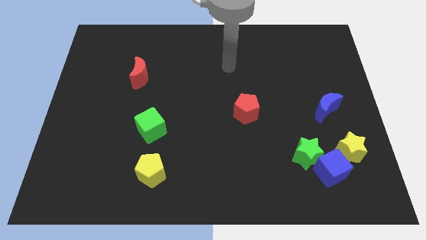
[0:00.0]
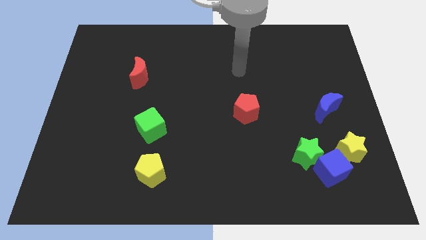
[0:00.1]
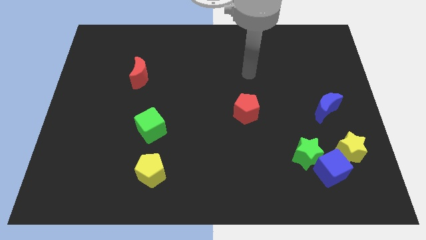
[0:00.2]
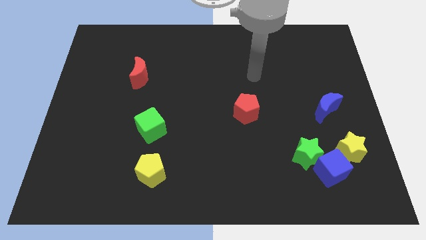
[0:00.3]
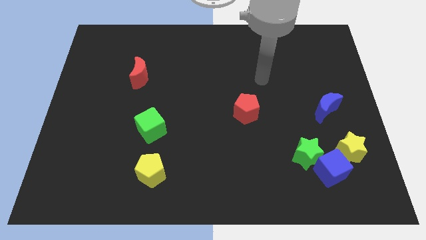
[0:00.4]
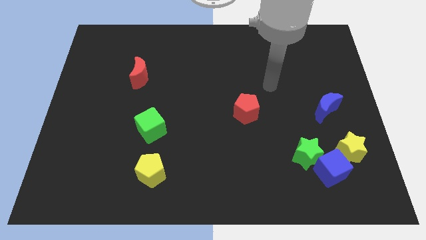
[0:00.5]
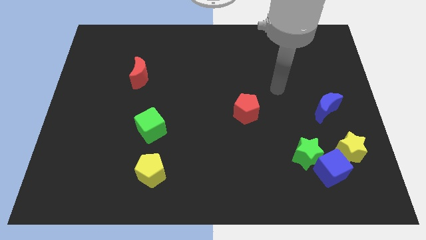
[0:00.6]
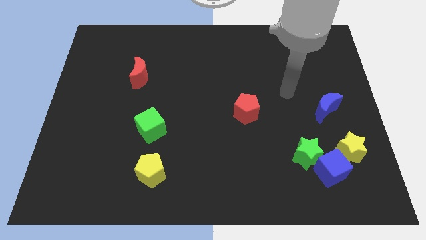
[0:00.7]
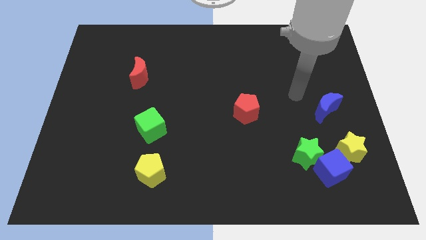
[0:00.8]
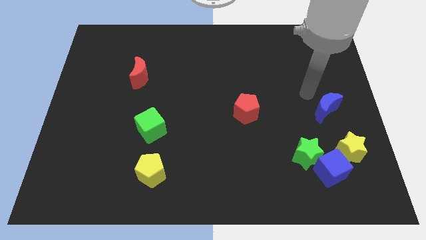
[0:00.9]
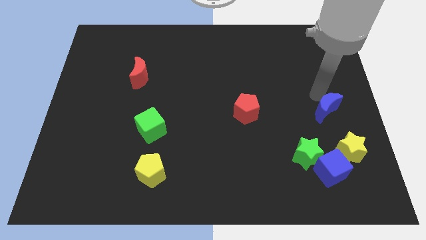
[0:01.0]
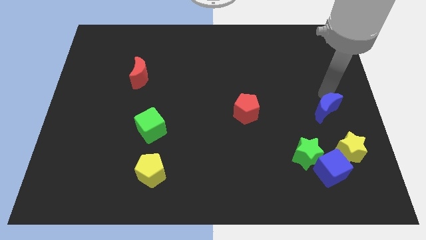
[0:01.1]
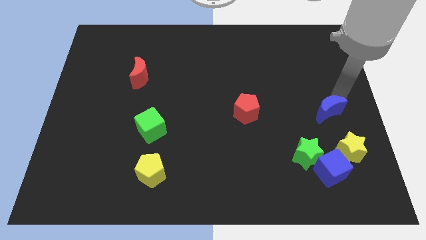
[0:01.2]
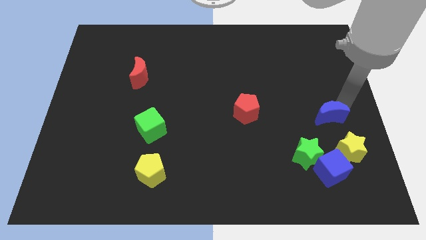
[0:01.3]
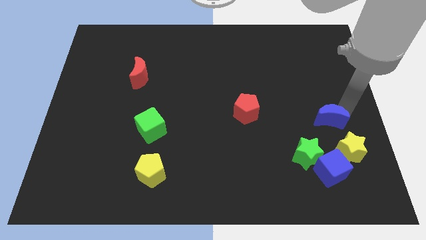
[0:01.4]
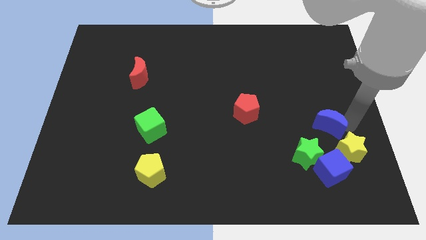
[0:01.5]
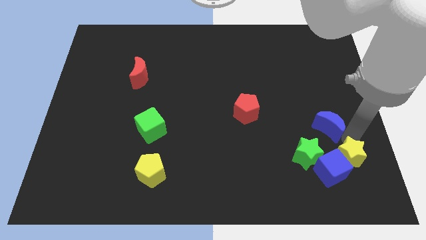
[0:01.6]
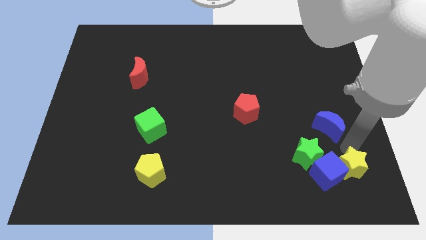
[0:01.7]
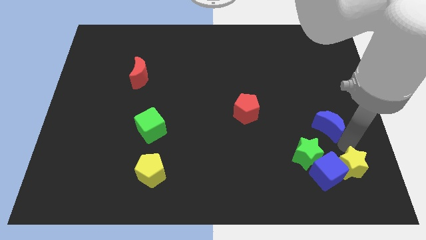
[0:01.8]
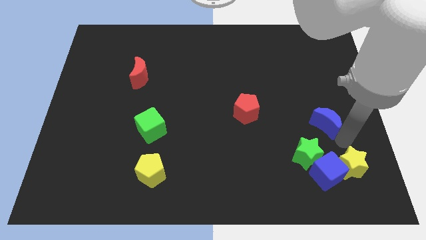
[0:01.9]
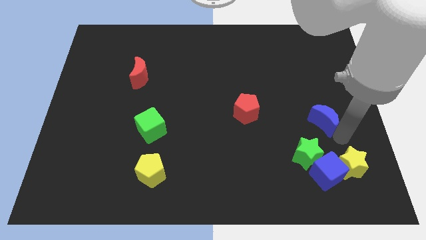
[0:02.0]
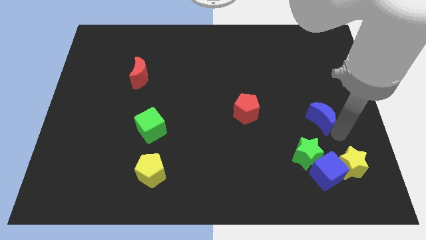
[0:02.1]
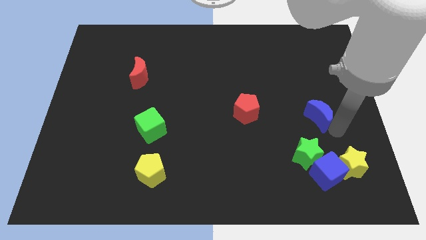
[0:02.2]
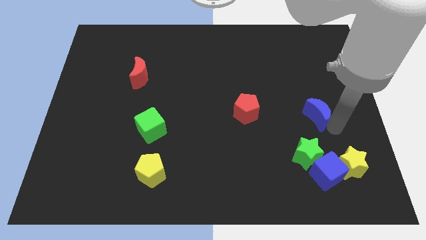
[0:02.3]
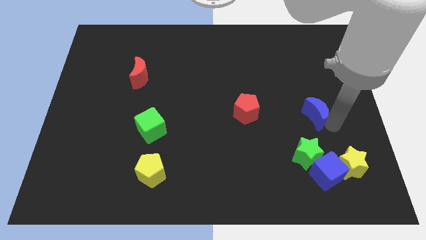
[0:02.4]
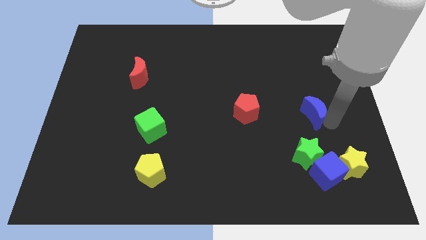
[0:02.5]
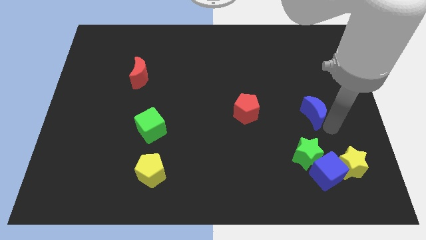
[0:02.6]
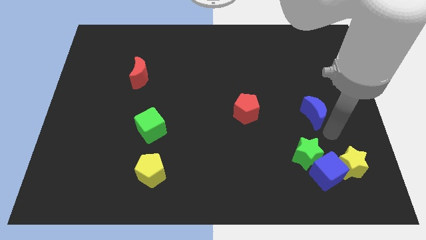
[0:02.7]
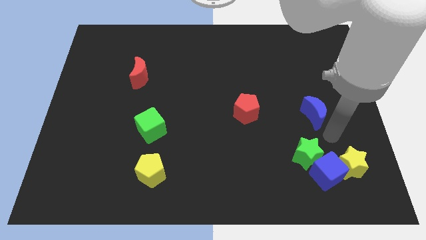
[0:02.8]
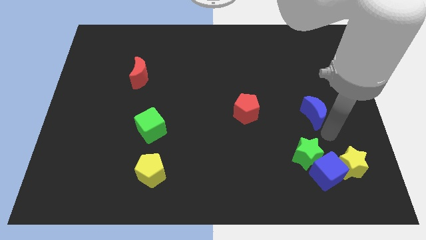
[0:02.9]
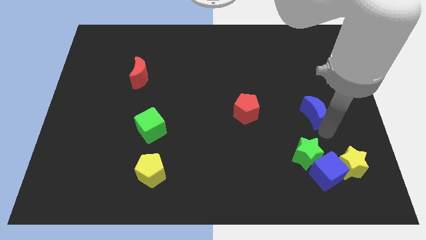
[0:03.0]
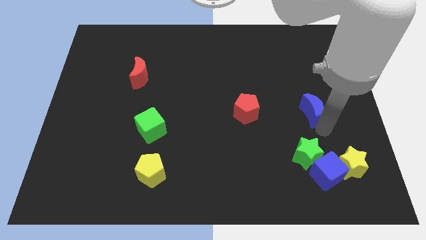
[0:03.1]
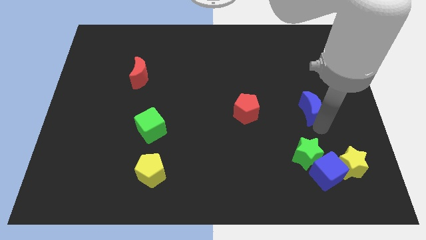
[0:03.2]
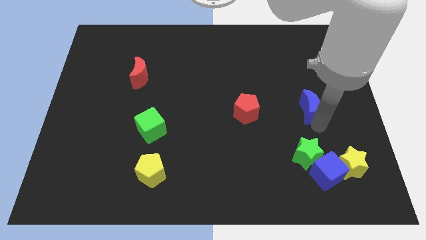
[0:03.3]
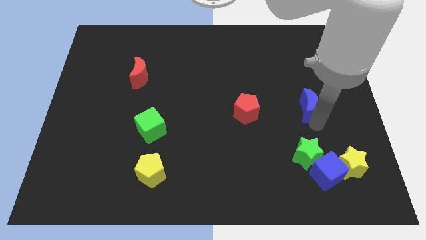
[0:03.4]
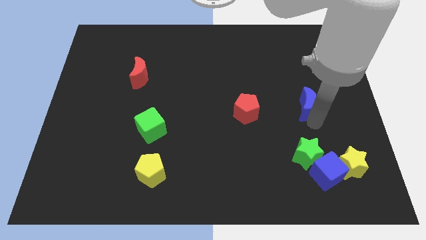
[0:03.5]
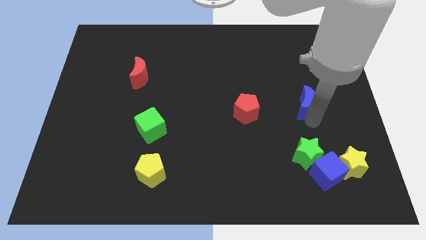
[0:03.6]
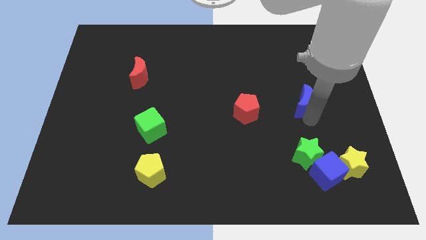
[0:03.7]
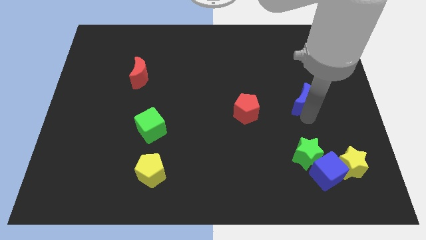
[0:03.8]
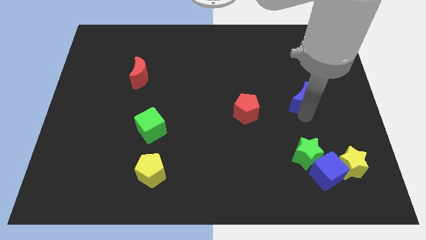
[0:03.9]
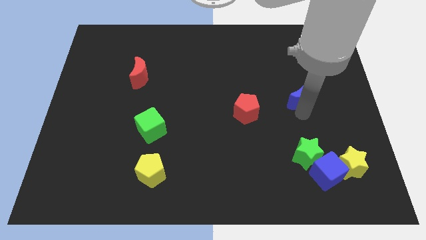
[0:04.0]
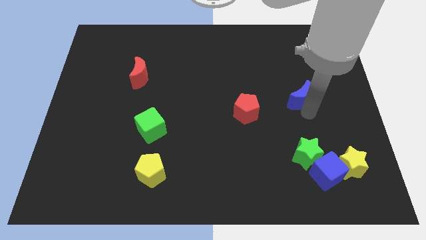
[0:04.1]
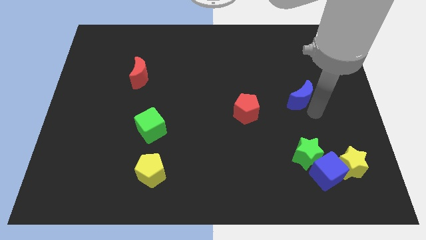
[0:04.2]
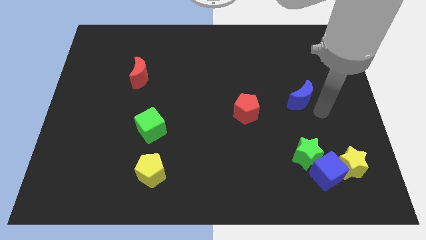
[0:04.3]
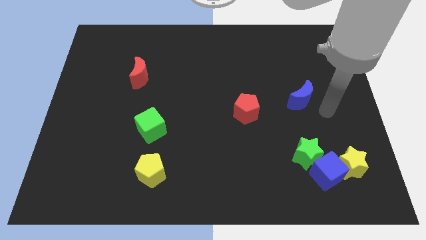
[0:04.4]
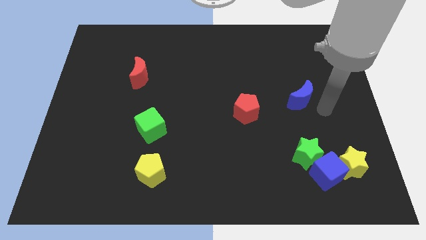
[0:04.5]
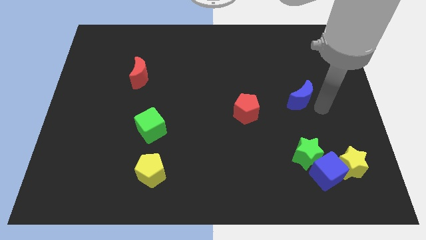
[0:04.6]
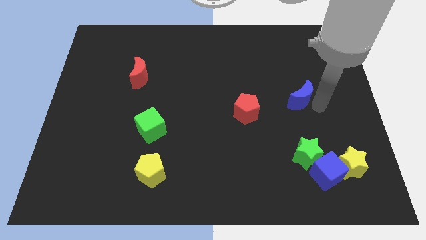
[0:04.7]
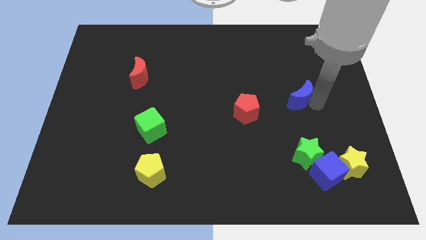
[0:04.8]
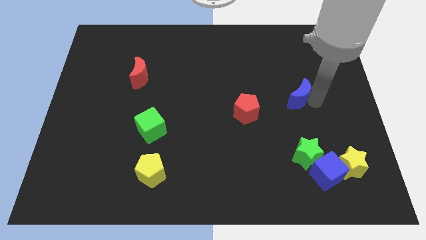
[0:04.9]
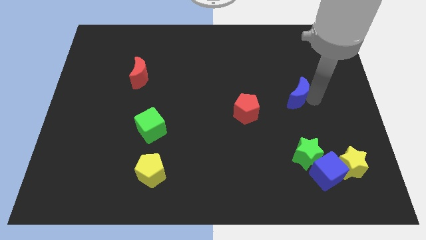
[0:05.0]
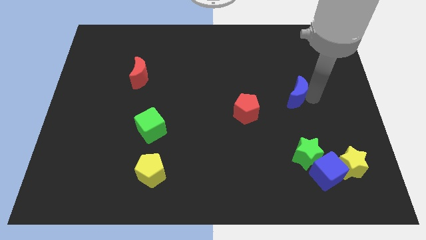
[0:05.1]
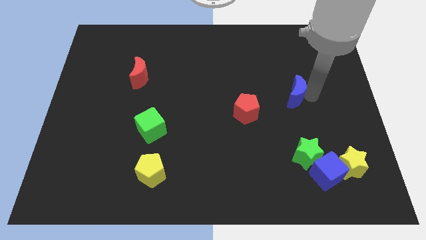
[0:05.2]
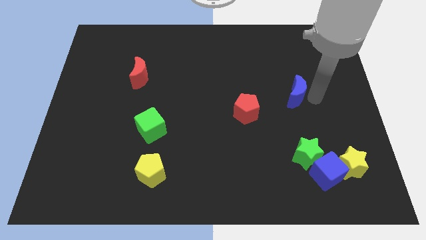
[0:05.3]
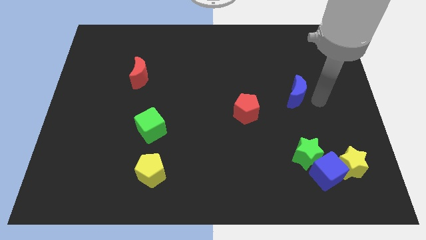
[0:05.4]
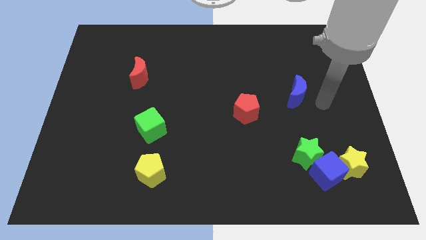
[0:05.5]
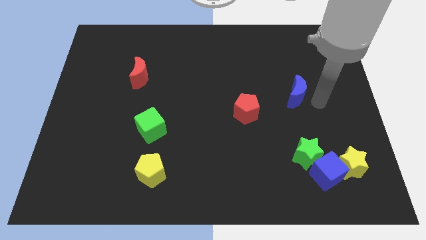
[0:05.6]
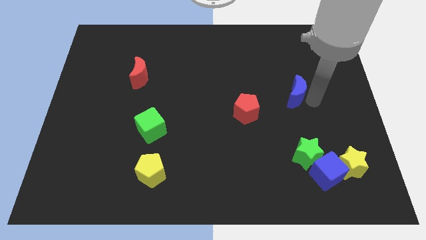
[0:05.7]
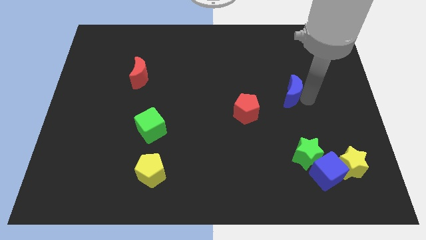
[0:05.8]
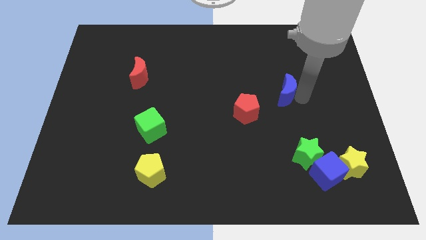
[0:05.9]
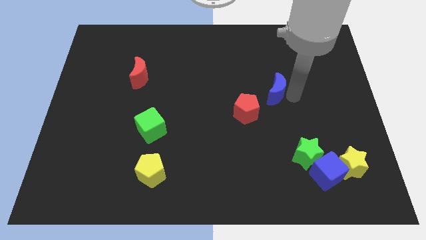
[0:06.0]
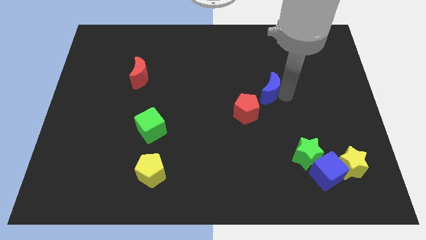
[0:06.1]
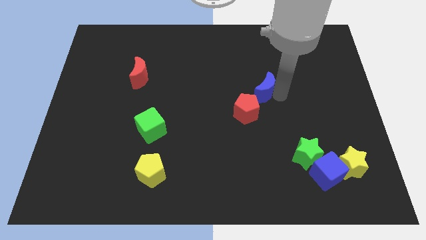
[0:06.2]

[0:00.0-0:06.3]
move the blue moon above the red pentagon

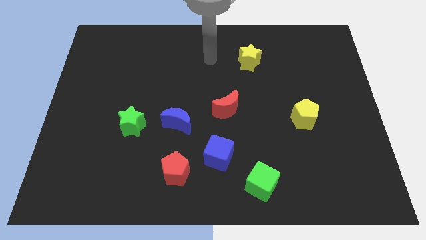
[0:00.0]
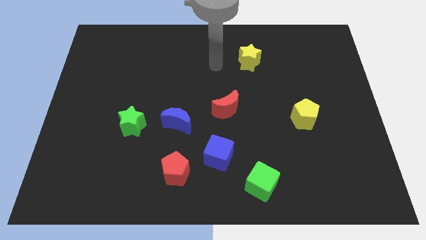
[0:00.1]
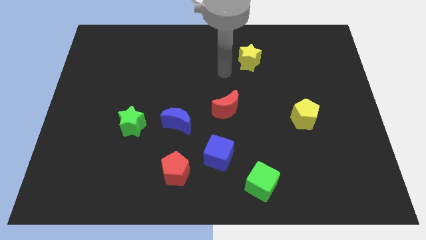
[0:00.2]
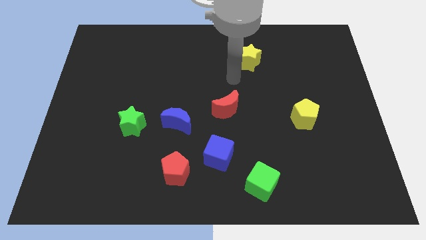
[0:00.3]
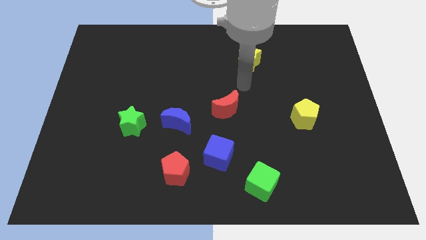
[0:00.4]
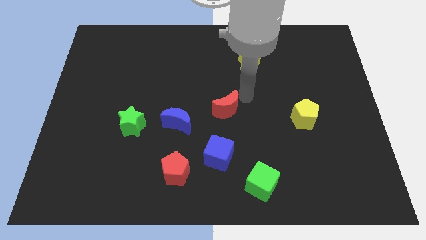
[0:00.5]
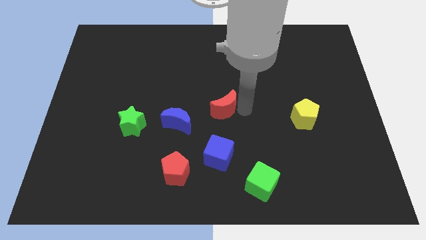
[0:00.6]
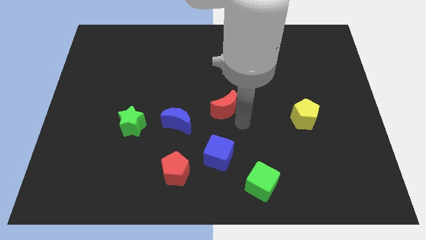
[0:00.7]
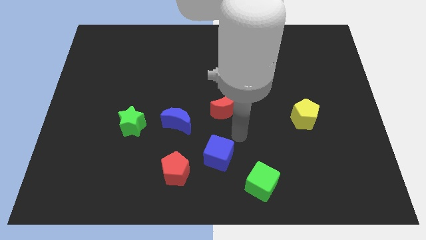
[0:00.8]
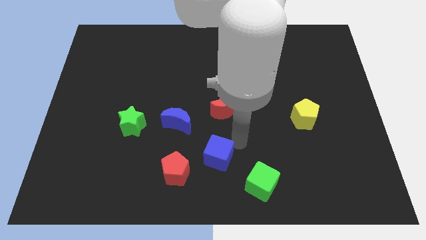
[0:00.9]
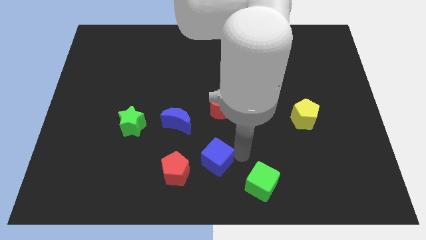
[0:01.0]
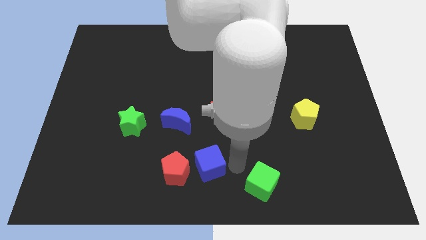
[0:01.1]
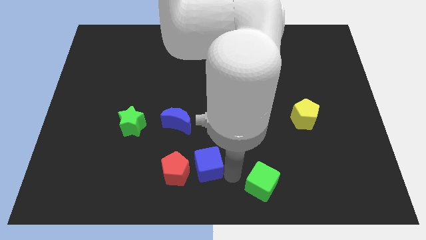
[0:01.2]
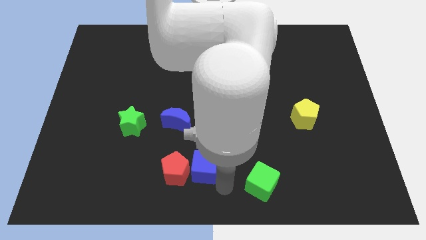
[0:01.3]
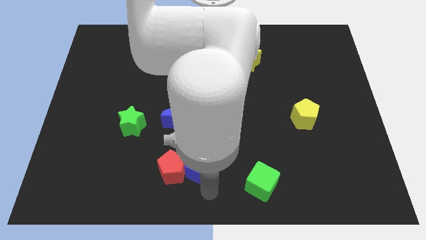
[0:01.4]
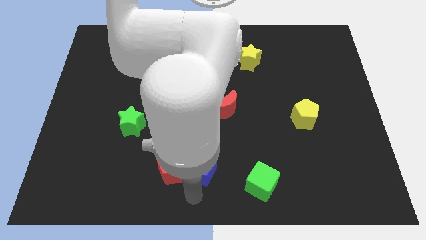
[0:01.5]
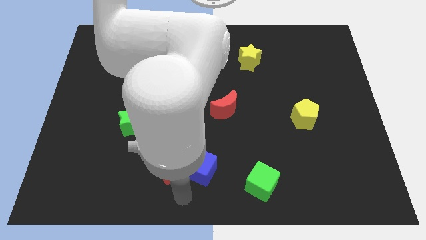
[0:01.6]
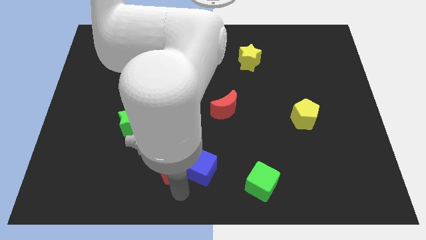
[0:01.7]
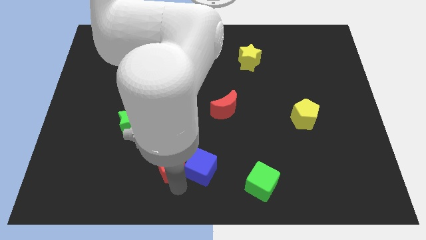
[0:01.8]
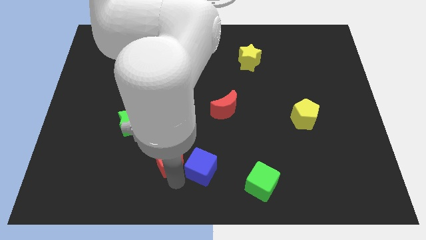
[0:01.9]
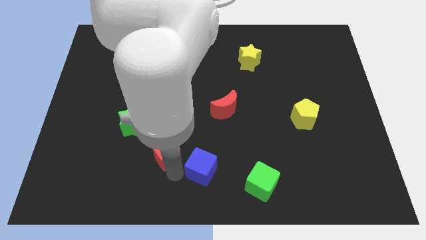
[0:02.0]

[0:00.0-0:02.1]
move the red pentagon to the bottom right side of the green star
